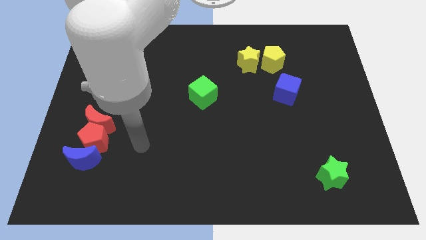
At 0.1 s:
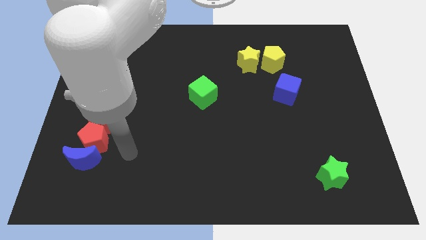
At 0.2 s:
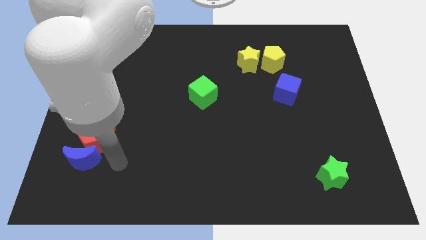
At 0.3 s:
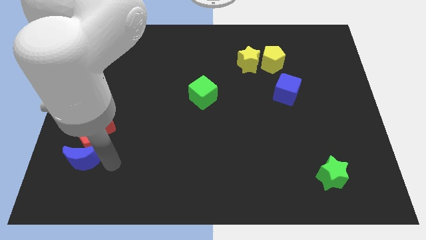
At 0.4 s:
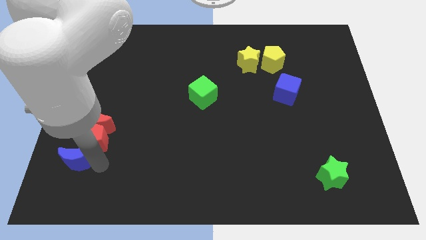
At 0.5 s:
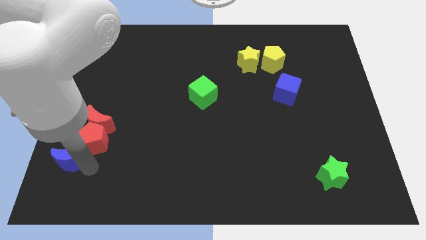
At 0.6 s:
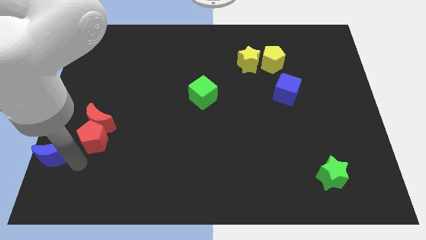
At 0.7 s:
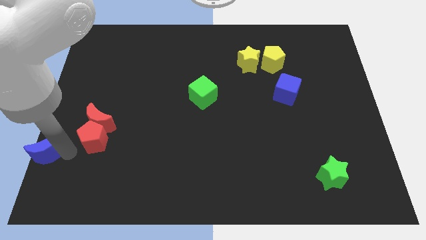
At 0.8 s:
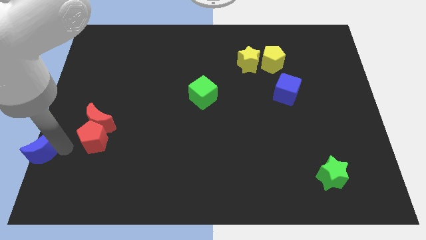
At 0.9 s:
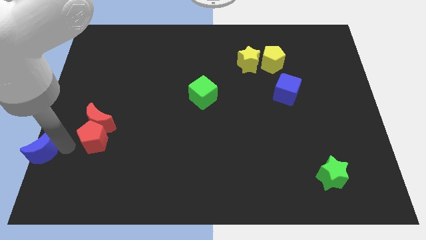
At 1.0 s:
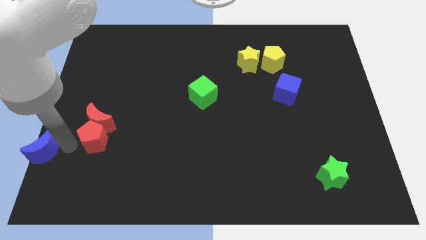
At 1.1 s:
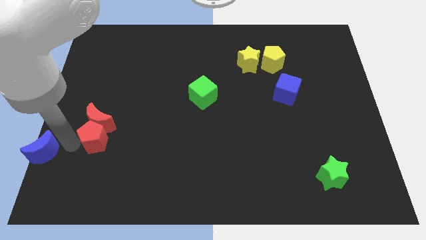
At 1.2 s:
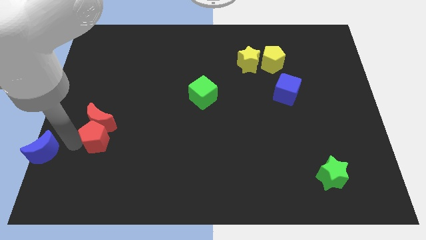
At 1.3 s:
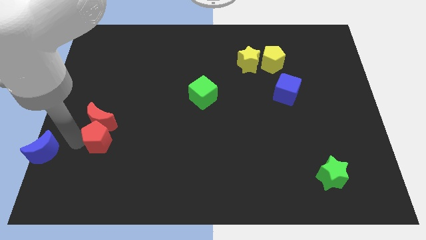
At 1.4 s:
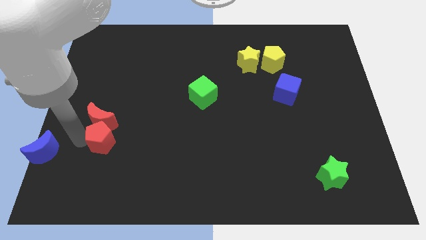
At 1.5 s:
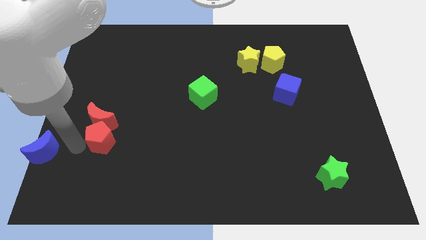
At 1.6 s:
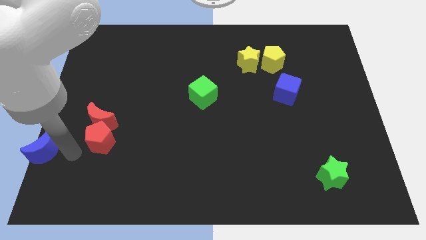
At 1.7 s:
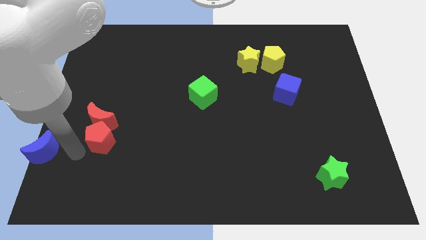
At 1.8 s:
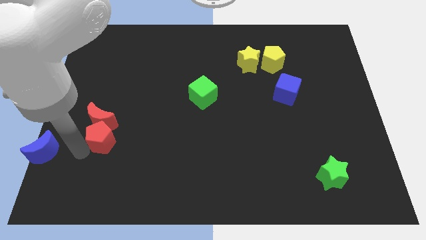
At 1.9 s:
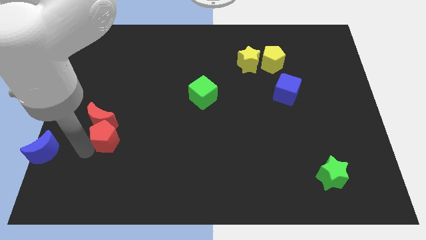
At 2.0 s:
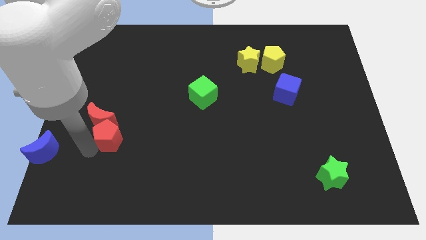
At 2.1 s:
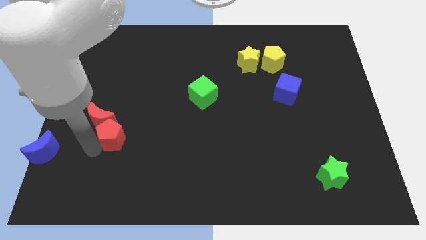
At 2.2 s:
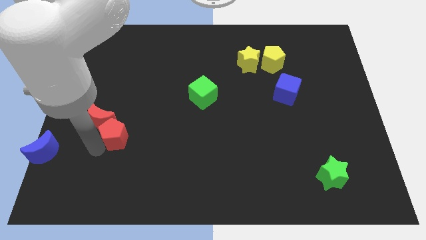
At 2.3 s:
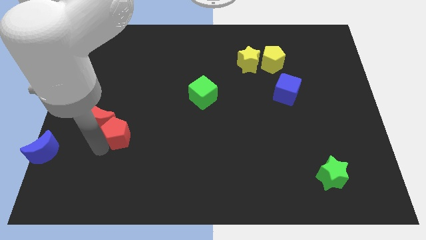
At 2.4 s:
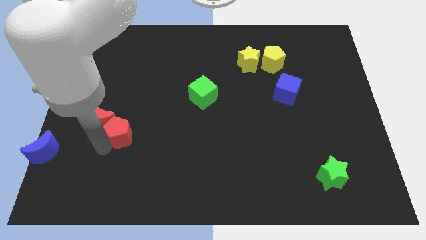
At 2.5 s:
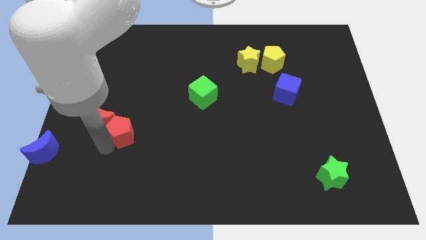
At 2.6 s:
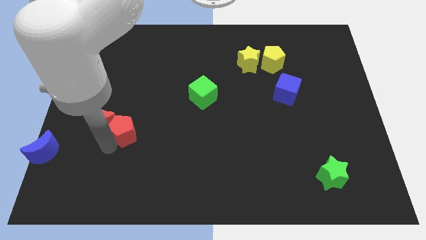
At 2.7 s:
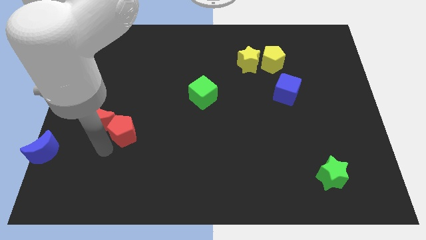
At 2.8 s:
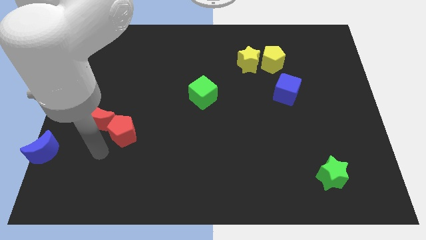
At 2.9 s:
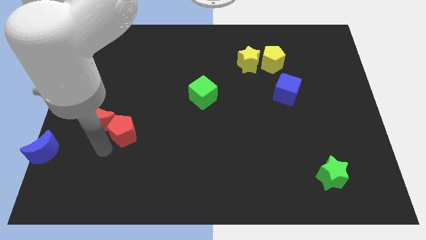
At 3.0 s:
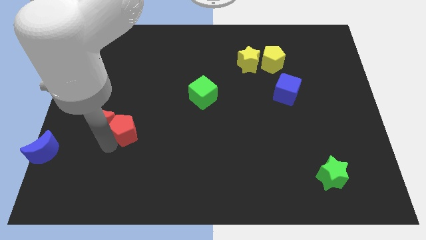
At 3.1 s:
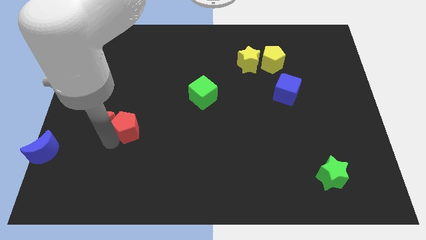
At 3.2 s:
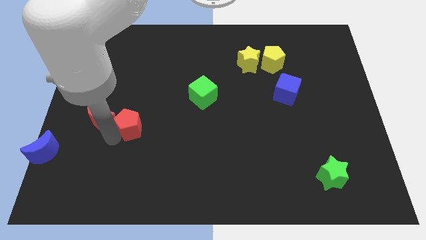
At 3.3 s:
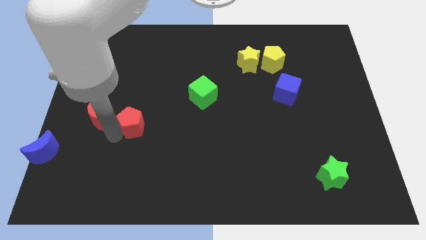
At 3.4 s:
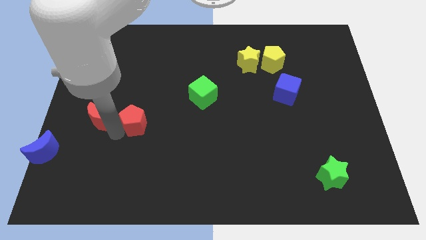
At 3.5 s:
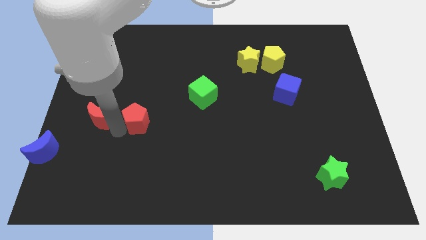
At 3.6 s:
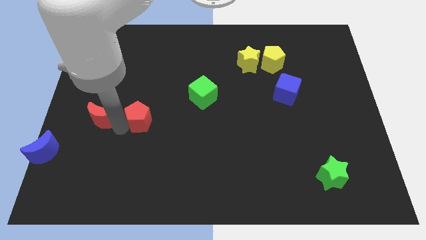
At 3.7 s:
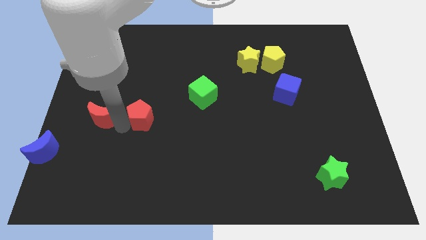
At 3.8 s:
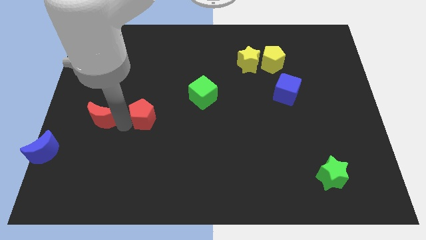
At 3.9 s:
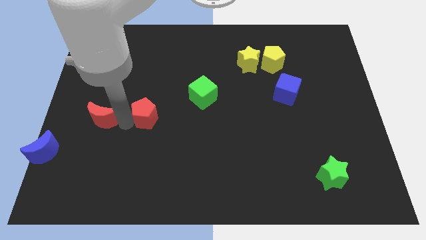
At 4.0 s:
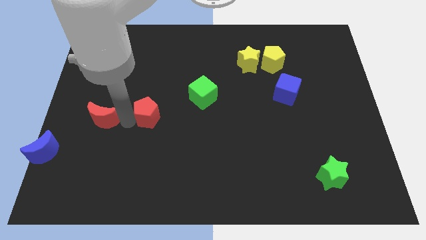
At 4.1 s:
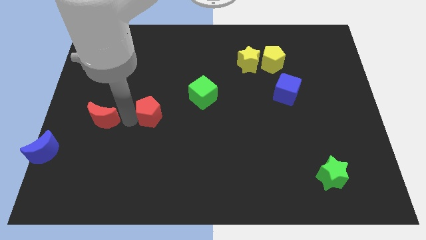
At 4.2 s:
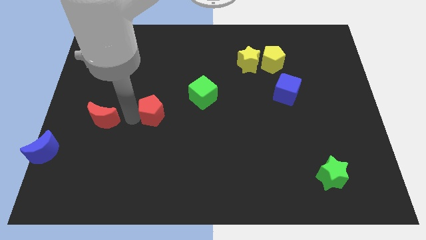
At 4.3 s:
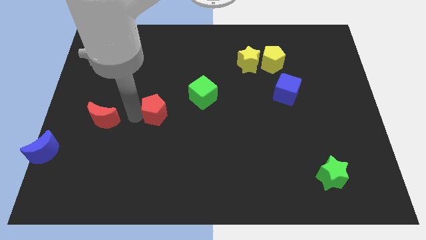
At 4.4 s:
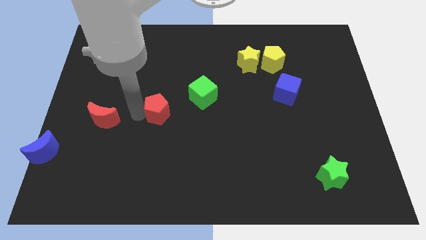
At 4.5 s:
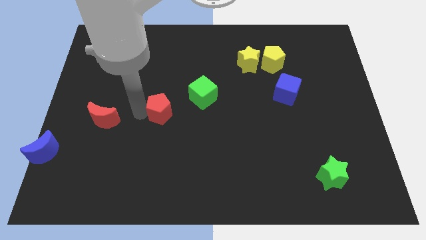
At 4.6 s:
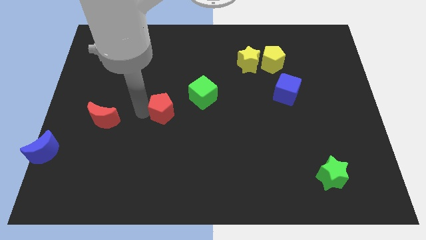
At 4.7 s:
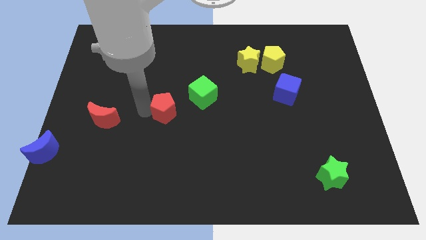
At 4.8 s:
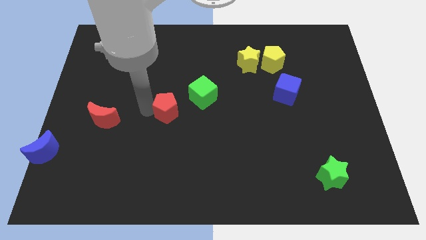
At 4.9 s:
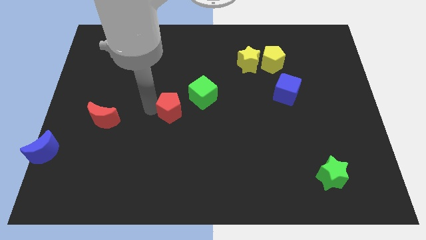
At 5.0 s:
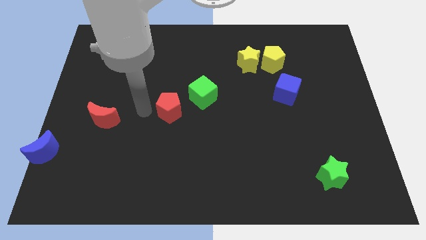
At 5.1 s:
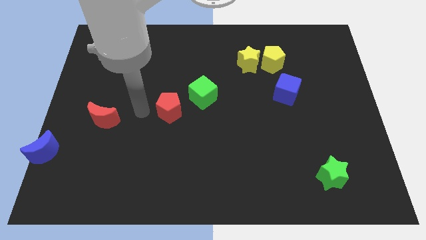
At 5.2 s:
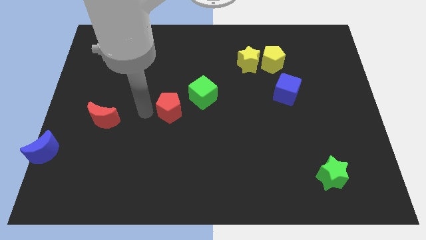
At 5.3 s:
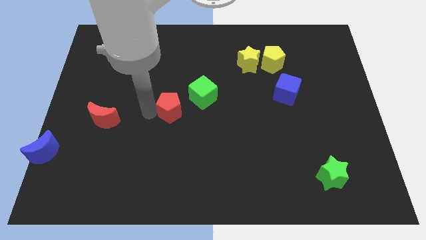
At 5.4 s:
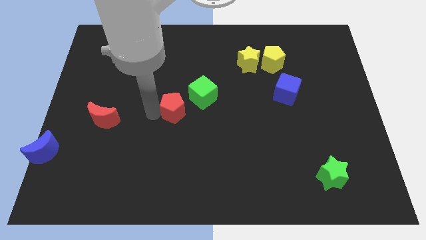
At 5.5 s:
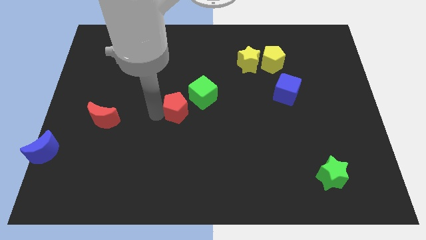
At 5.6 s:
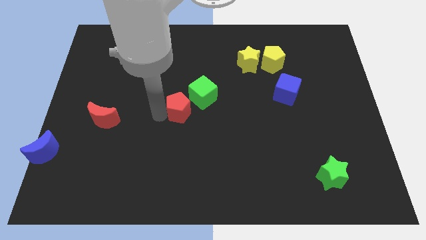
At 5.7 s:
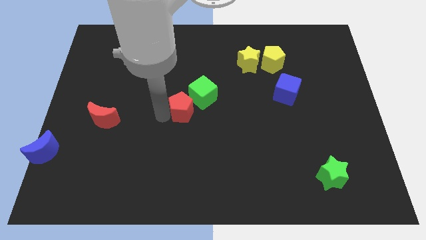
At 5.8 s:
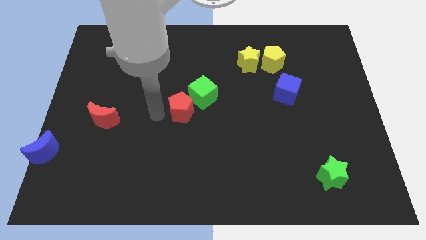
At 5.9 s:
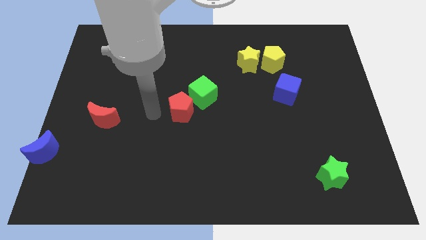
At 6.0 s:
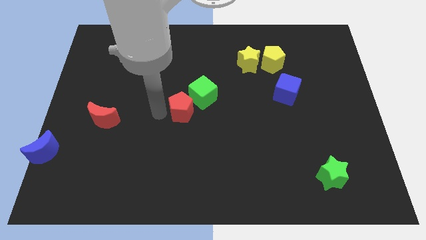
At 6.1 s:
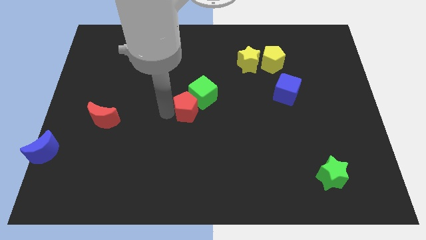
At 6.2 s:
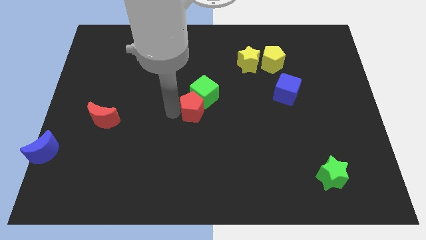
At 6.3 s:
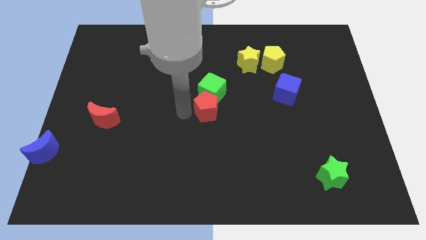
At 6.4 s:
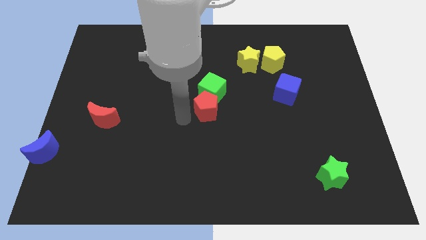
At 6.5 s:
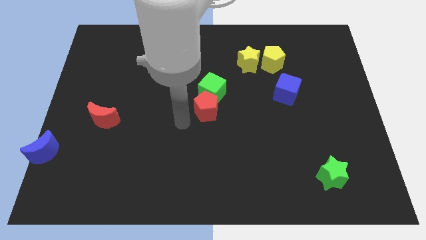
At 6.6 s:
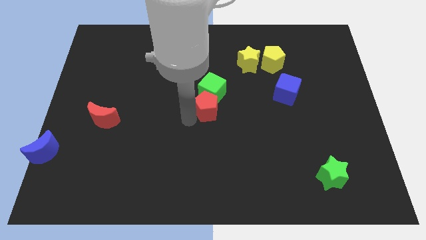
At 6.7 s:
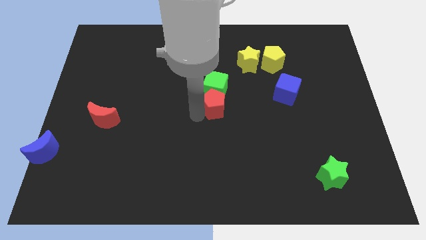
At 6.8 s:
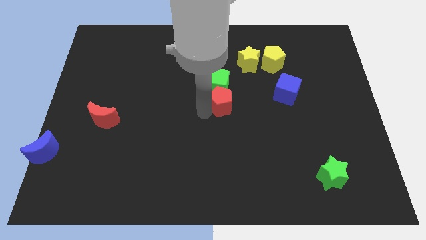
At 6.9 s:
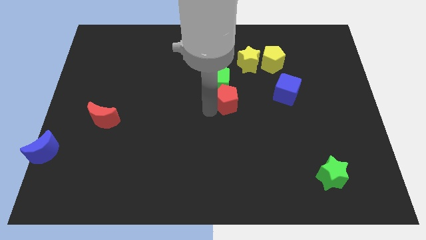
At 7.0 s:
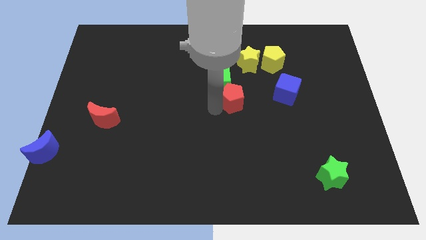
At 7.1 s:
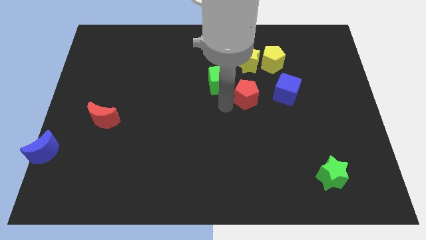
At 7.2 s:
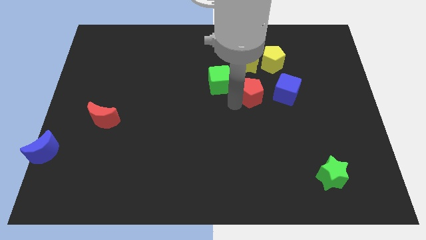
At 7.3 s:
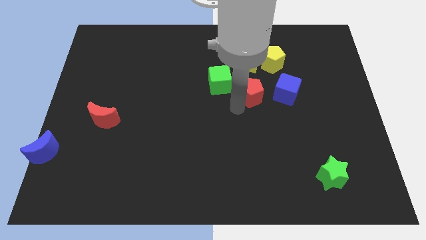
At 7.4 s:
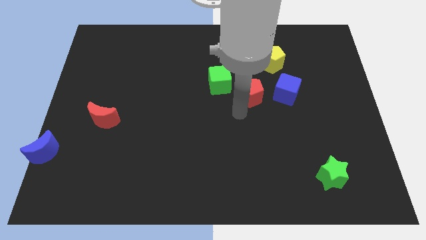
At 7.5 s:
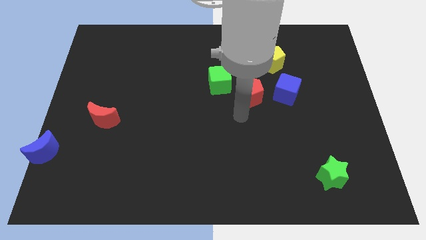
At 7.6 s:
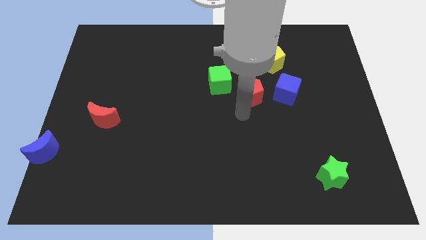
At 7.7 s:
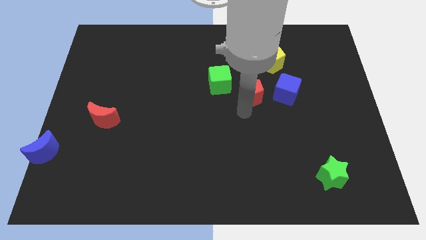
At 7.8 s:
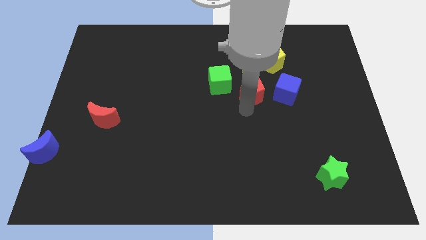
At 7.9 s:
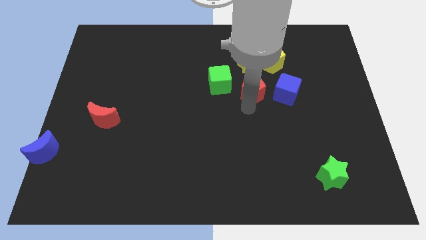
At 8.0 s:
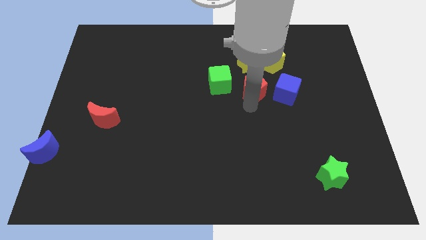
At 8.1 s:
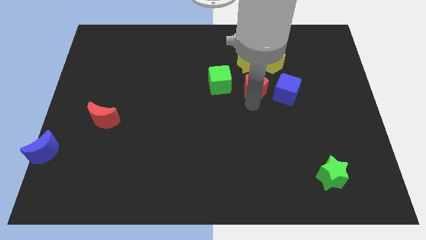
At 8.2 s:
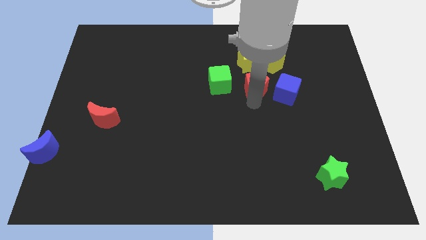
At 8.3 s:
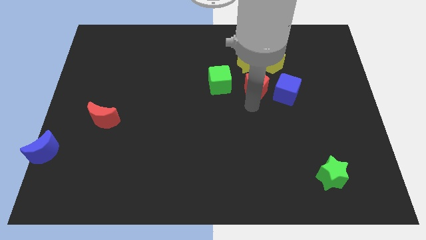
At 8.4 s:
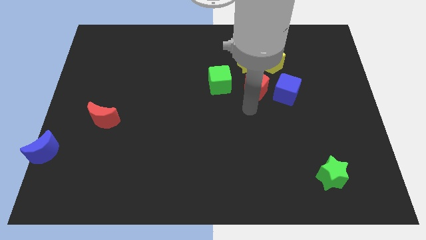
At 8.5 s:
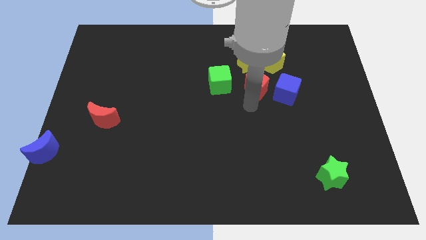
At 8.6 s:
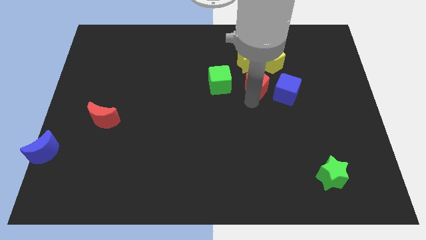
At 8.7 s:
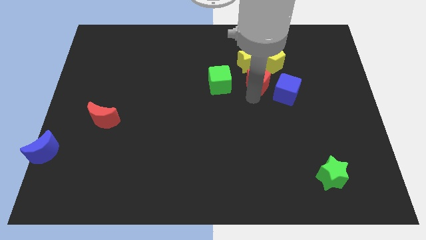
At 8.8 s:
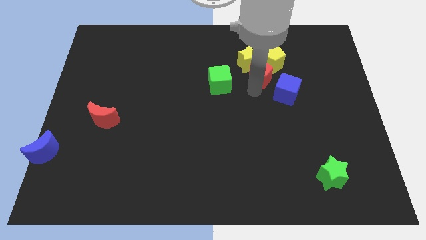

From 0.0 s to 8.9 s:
push the red pentagon close to the yellow pentagon
